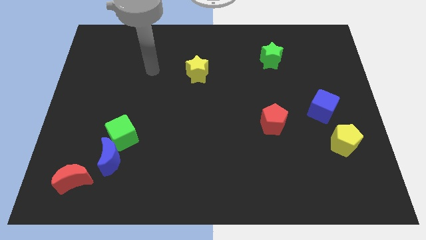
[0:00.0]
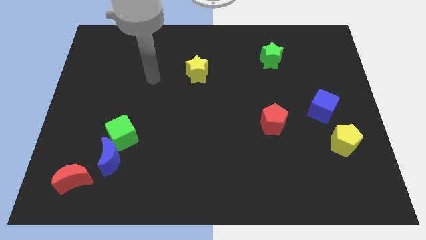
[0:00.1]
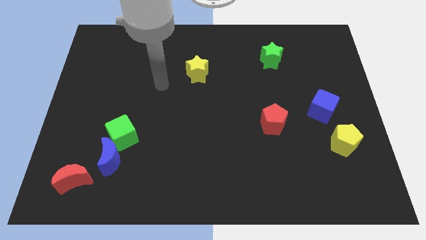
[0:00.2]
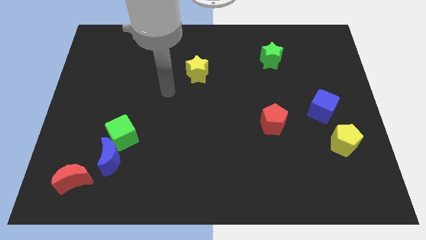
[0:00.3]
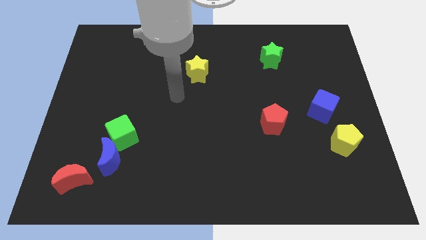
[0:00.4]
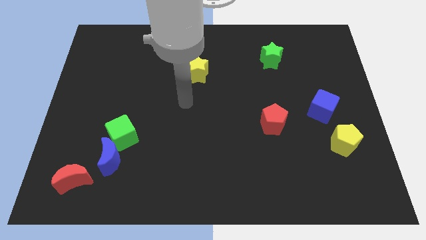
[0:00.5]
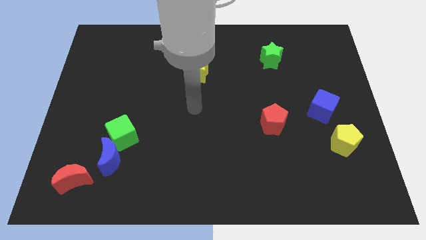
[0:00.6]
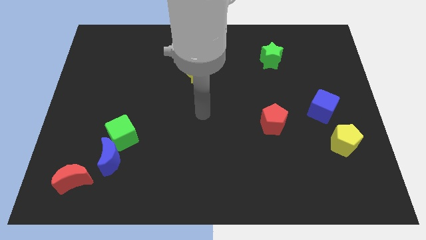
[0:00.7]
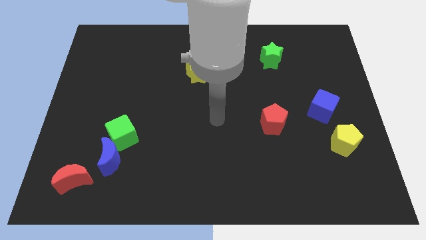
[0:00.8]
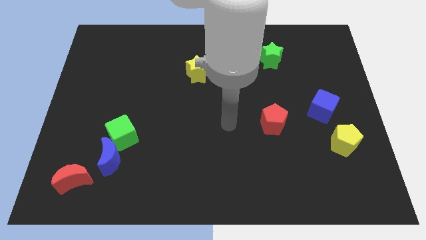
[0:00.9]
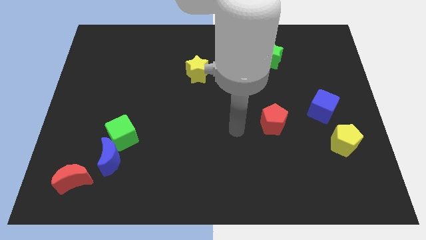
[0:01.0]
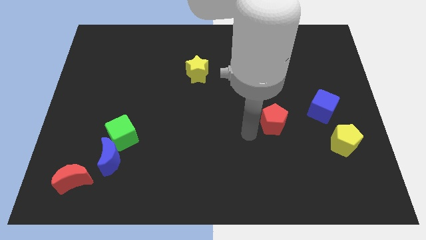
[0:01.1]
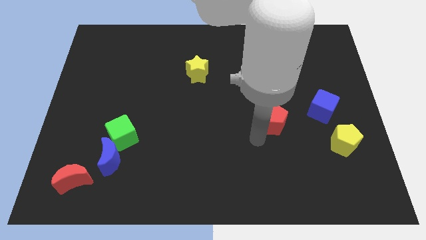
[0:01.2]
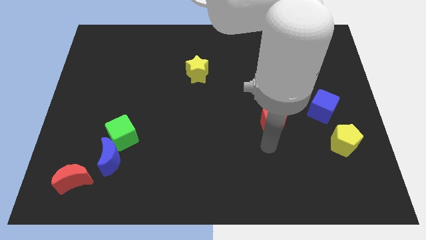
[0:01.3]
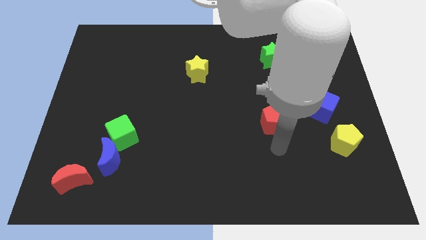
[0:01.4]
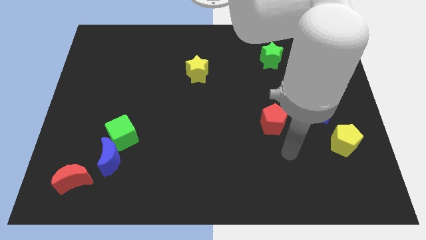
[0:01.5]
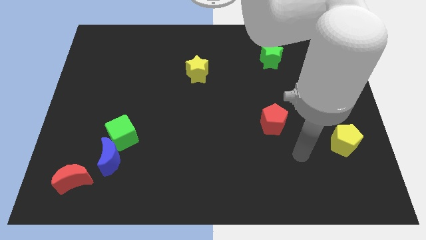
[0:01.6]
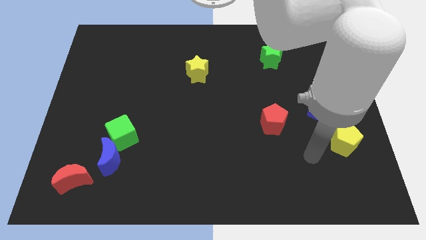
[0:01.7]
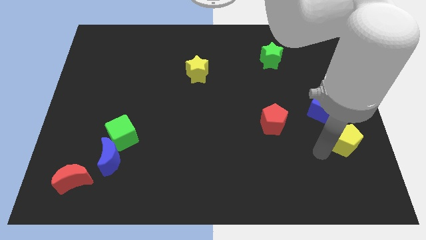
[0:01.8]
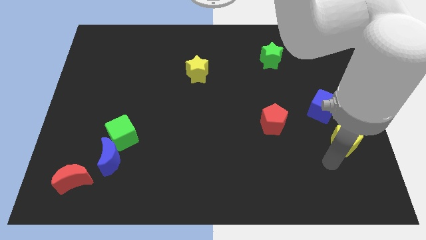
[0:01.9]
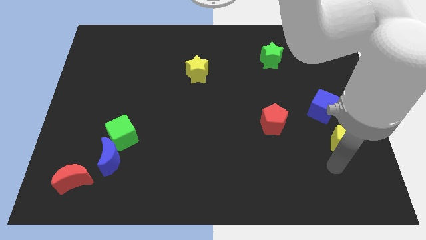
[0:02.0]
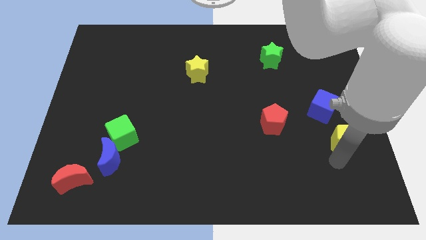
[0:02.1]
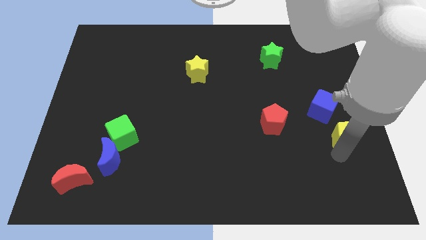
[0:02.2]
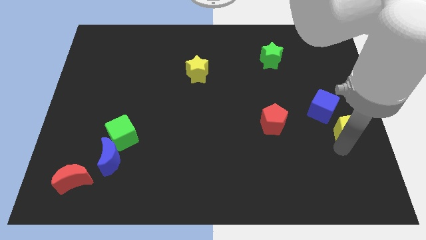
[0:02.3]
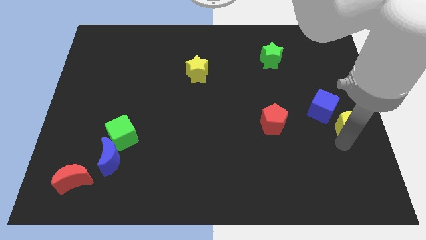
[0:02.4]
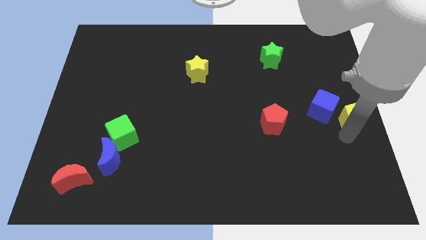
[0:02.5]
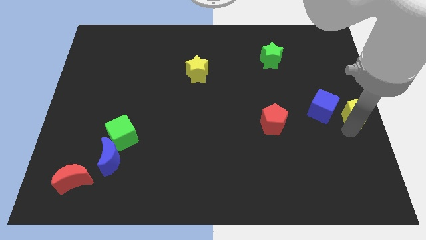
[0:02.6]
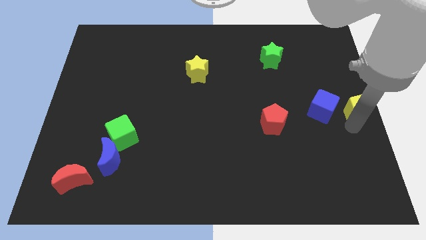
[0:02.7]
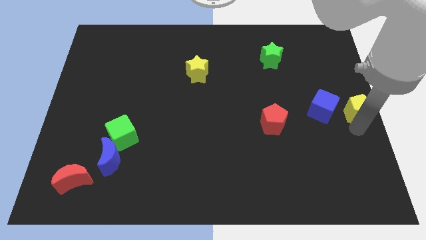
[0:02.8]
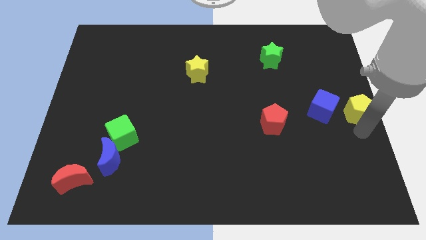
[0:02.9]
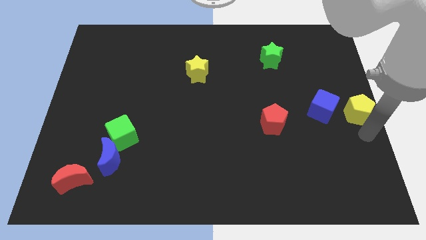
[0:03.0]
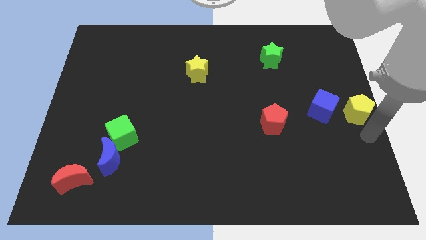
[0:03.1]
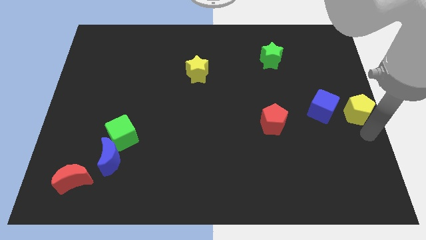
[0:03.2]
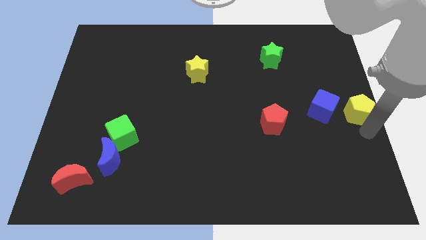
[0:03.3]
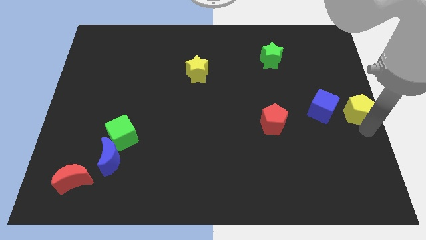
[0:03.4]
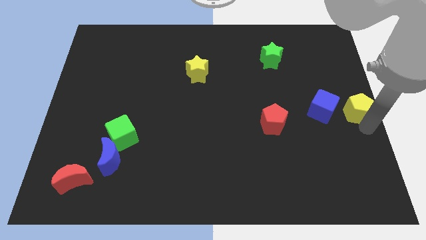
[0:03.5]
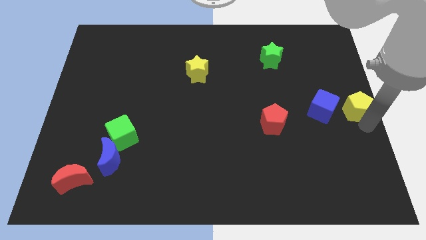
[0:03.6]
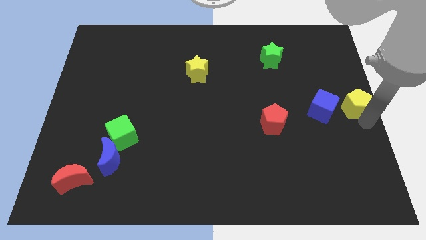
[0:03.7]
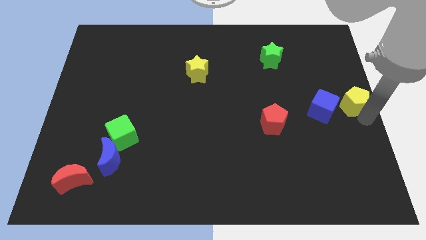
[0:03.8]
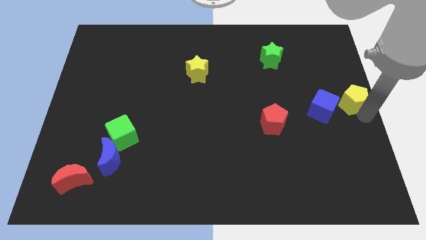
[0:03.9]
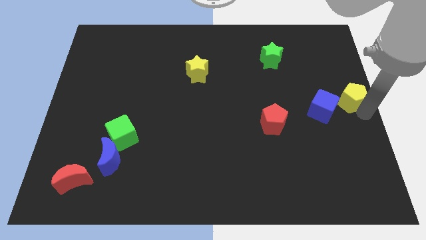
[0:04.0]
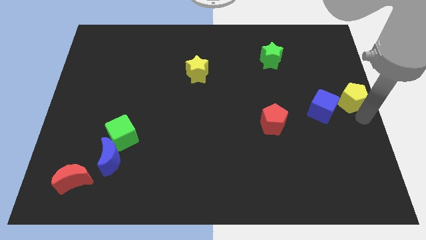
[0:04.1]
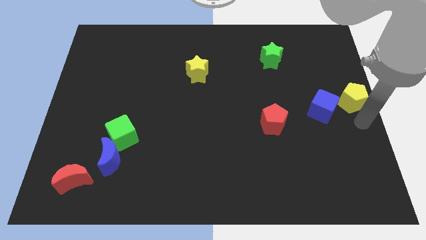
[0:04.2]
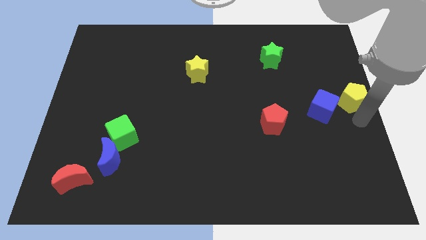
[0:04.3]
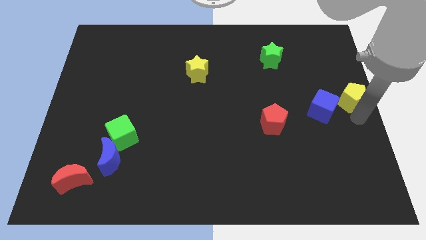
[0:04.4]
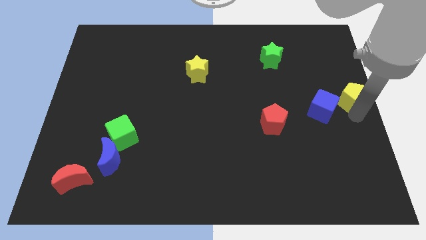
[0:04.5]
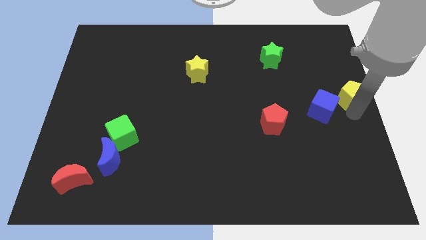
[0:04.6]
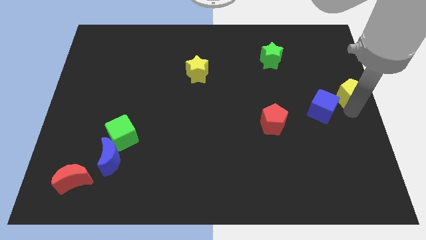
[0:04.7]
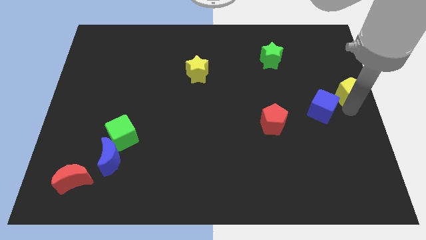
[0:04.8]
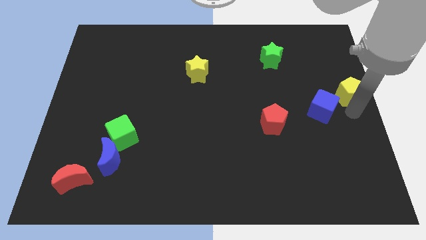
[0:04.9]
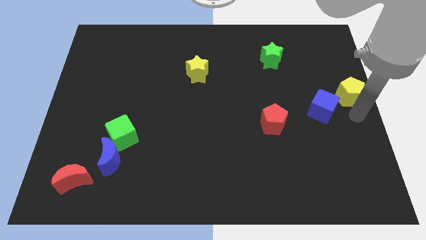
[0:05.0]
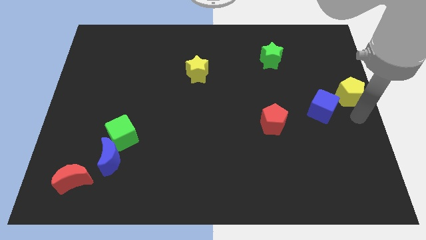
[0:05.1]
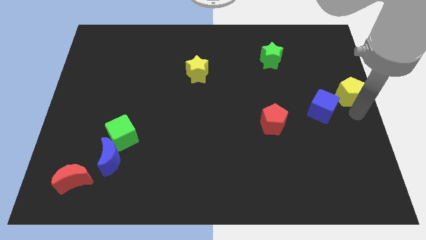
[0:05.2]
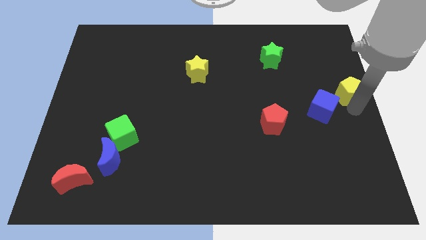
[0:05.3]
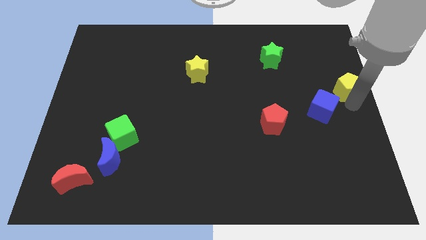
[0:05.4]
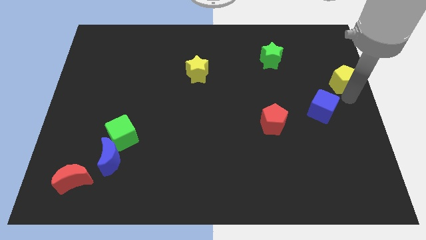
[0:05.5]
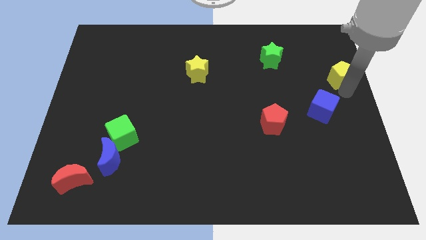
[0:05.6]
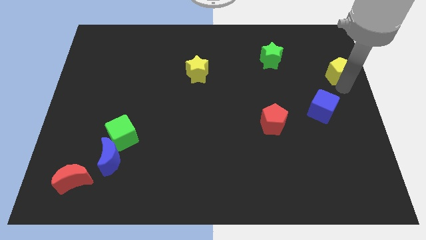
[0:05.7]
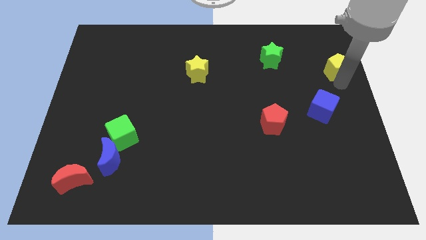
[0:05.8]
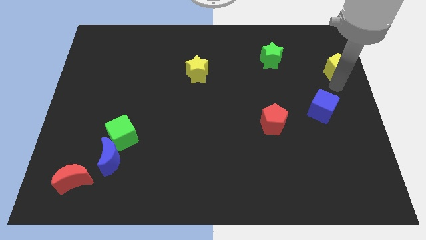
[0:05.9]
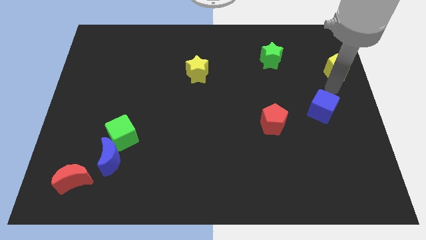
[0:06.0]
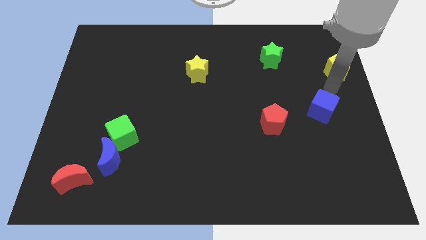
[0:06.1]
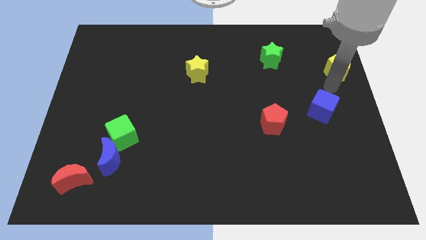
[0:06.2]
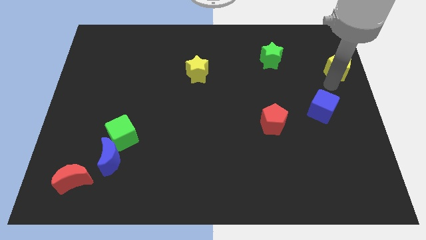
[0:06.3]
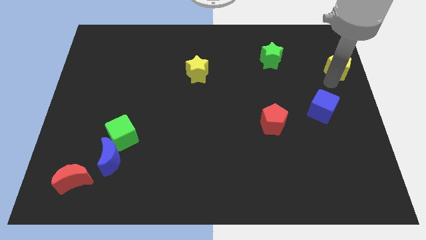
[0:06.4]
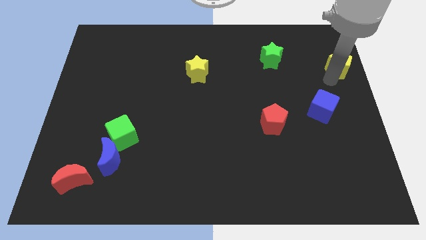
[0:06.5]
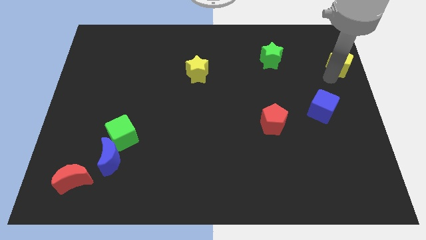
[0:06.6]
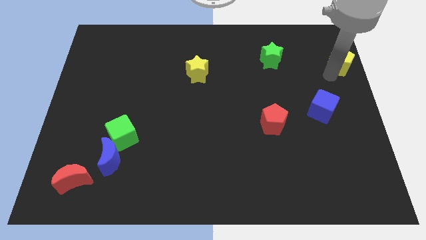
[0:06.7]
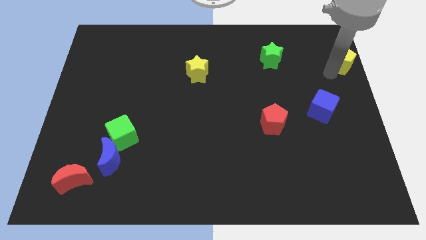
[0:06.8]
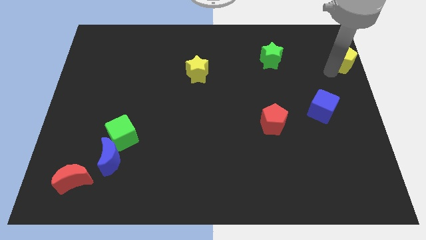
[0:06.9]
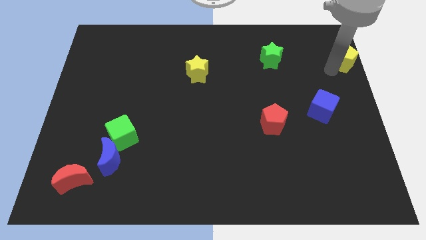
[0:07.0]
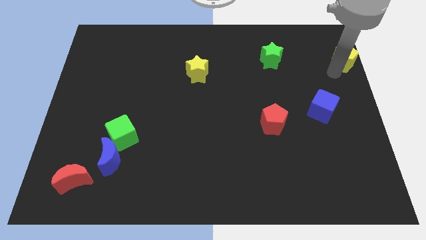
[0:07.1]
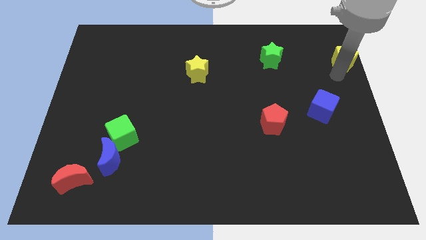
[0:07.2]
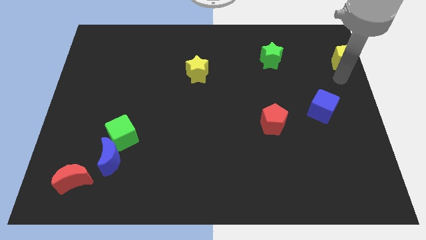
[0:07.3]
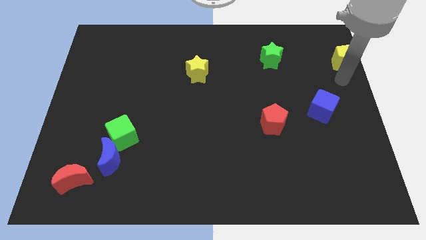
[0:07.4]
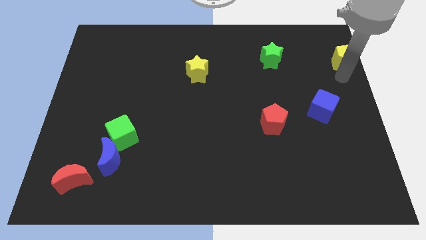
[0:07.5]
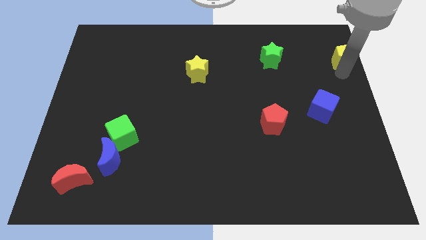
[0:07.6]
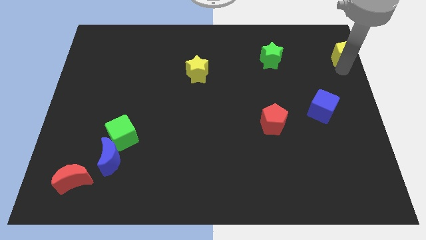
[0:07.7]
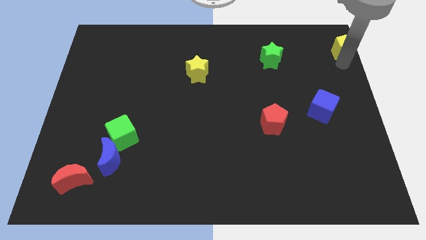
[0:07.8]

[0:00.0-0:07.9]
push the yellow pentagon to the top right corner
